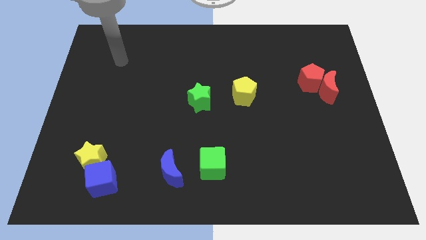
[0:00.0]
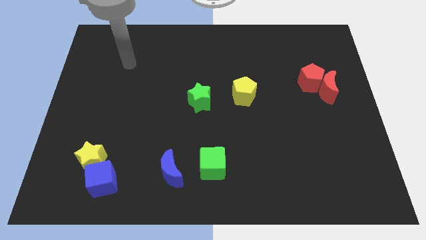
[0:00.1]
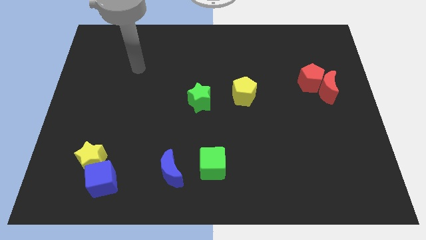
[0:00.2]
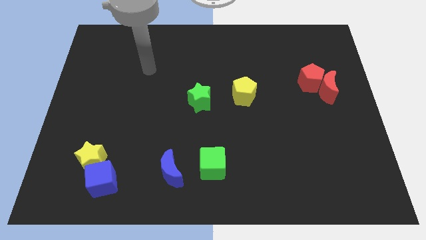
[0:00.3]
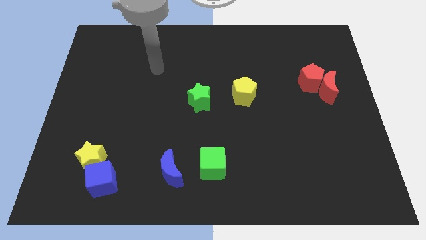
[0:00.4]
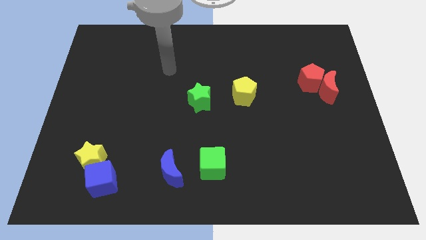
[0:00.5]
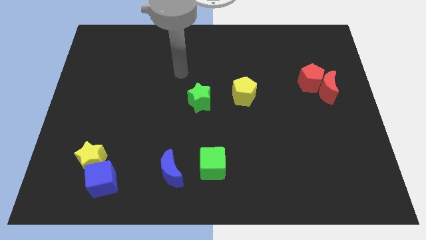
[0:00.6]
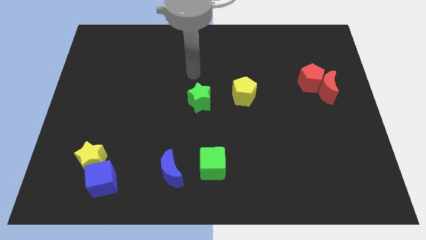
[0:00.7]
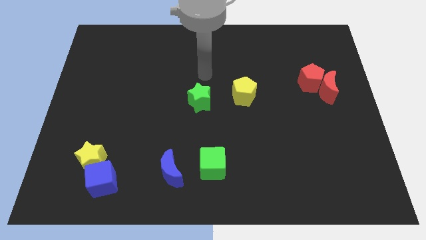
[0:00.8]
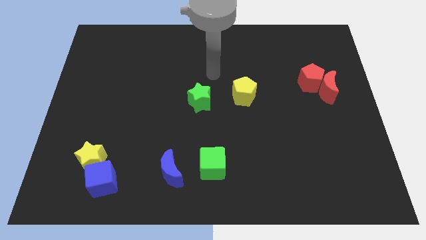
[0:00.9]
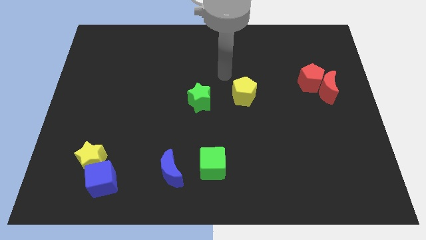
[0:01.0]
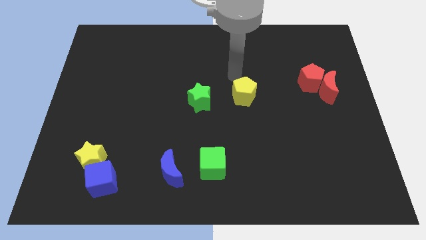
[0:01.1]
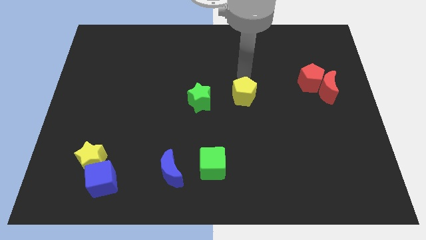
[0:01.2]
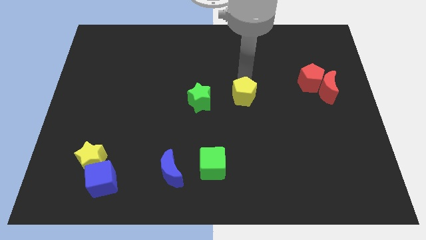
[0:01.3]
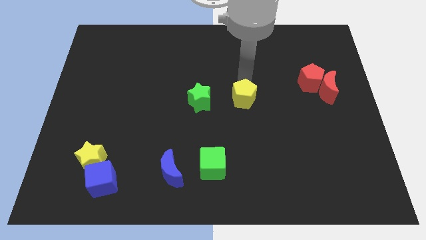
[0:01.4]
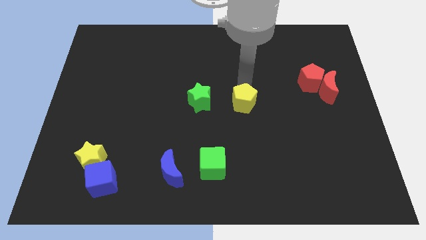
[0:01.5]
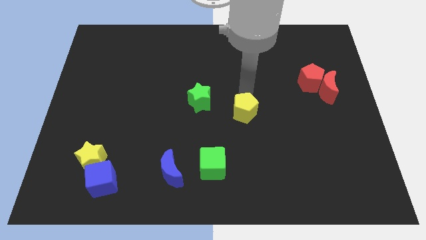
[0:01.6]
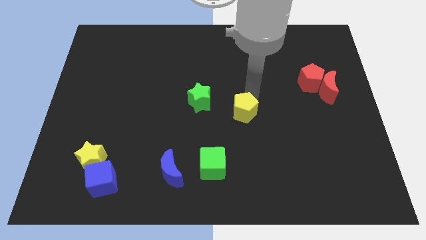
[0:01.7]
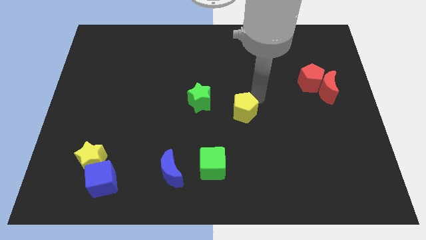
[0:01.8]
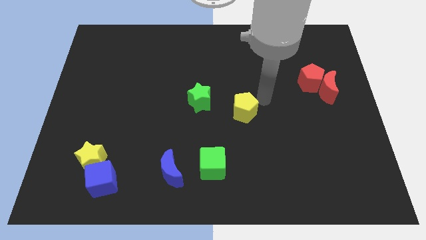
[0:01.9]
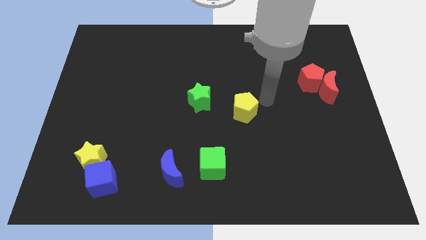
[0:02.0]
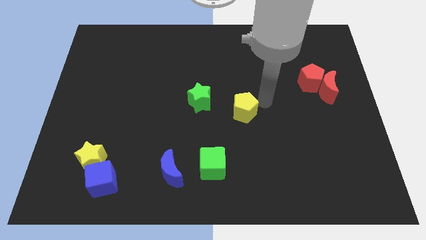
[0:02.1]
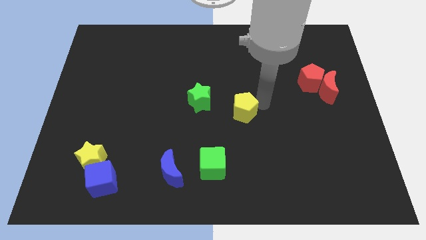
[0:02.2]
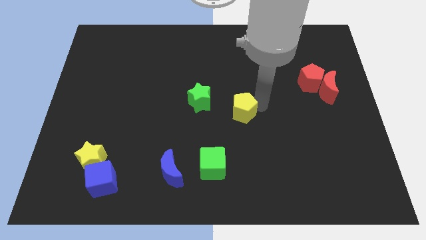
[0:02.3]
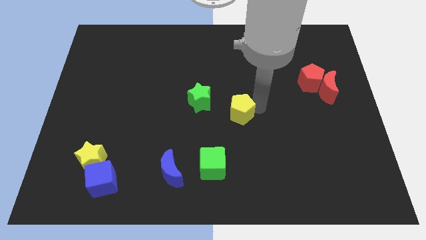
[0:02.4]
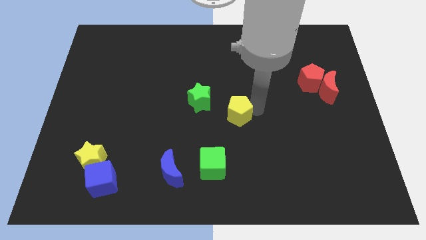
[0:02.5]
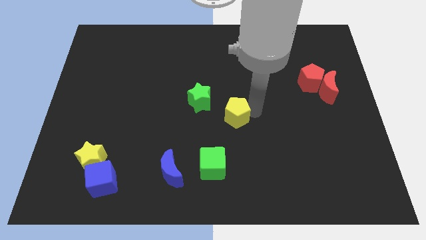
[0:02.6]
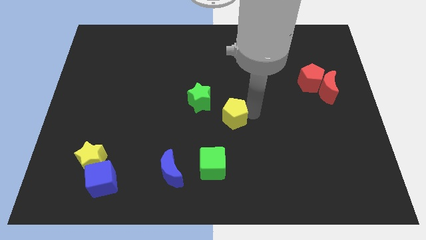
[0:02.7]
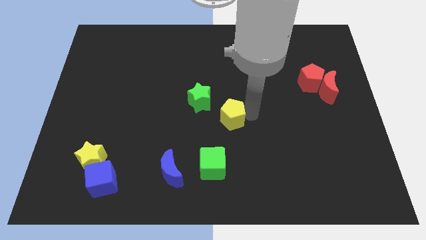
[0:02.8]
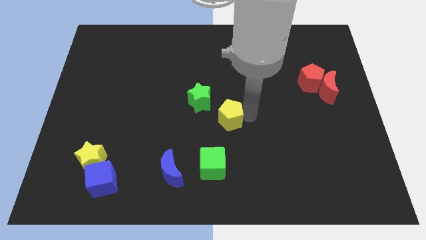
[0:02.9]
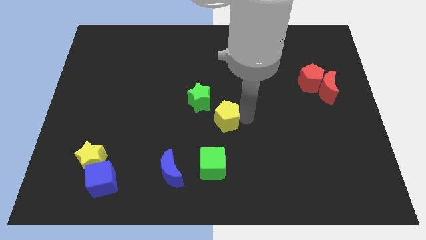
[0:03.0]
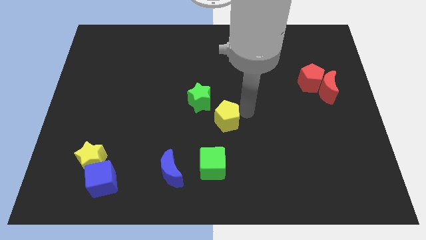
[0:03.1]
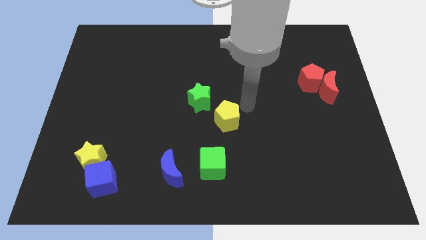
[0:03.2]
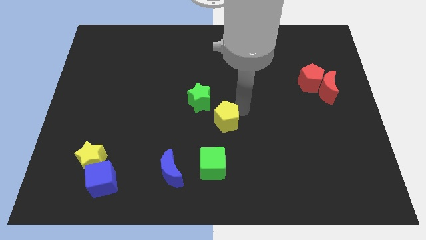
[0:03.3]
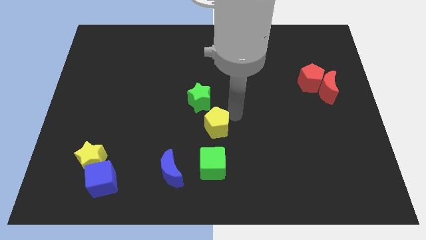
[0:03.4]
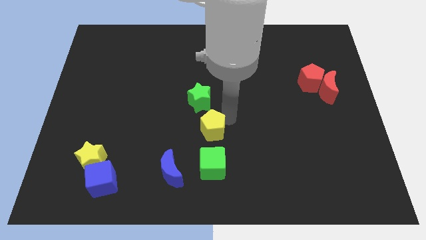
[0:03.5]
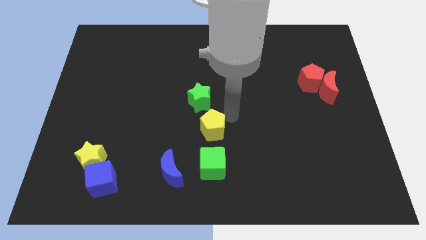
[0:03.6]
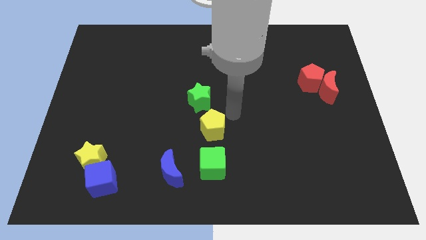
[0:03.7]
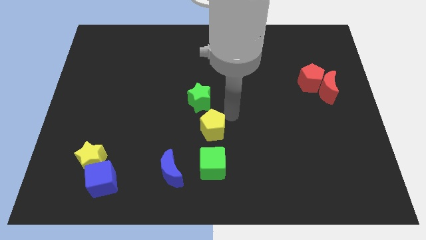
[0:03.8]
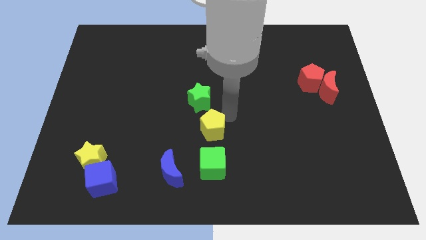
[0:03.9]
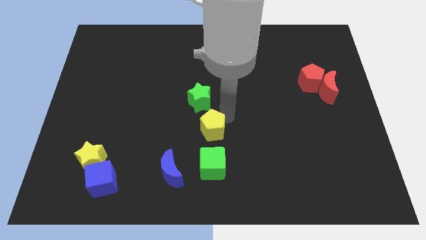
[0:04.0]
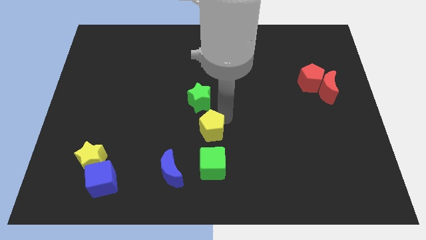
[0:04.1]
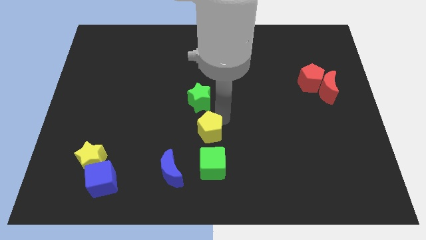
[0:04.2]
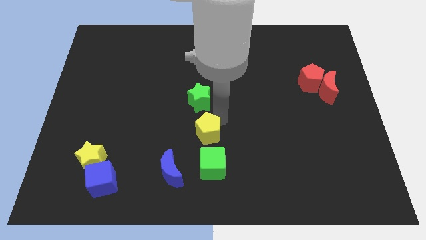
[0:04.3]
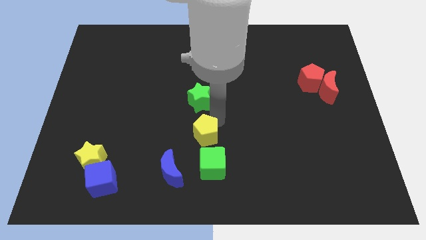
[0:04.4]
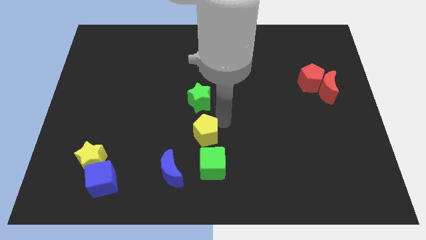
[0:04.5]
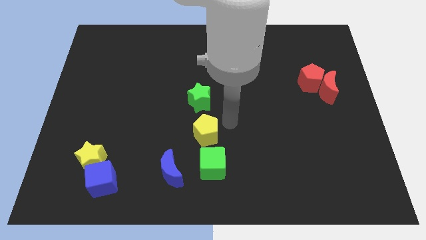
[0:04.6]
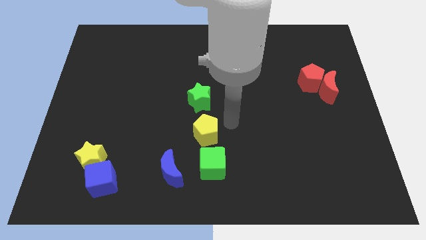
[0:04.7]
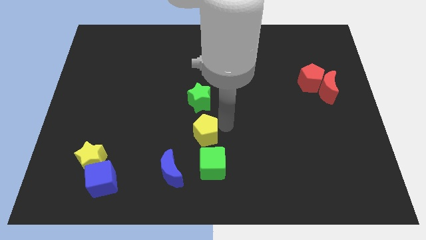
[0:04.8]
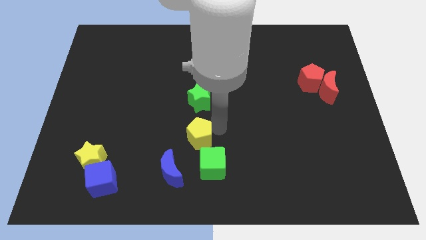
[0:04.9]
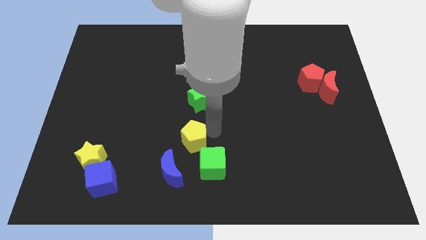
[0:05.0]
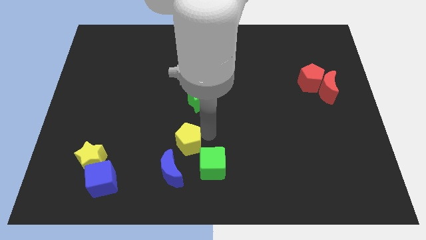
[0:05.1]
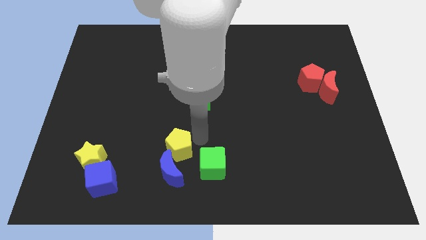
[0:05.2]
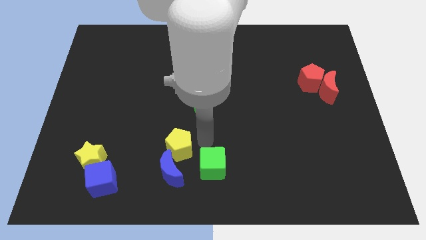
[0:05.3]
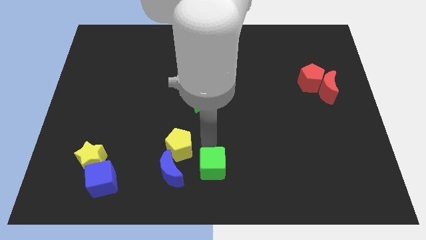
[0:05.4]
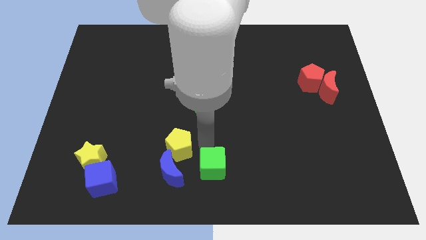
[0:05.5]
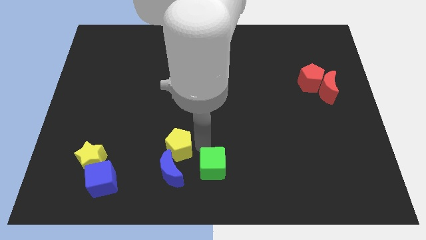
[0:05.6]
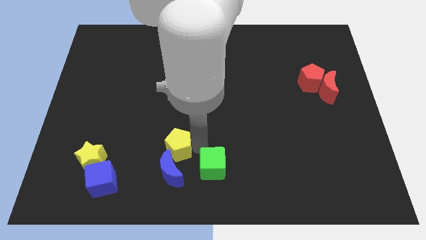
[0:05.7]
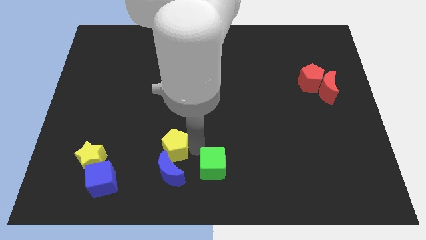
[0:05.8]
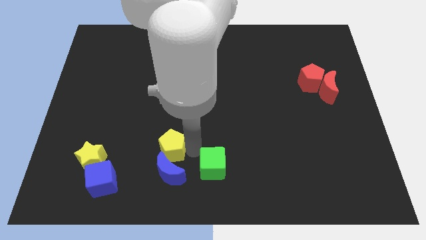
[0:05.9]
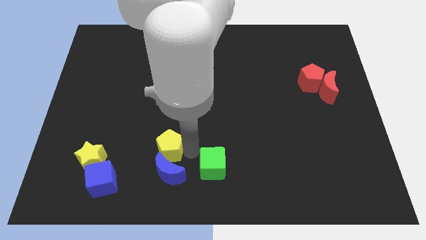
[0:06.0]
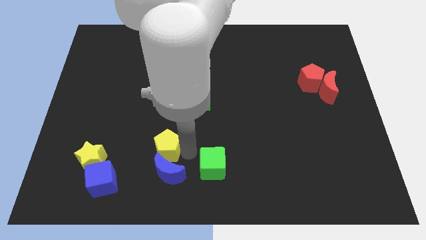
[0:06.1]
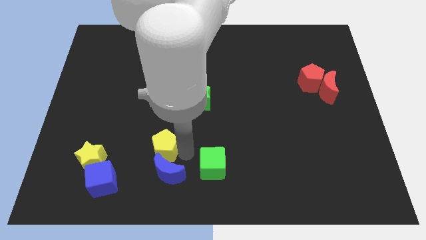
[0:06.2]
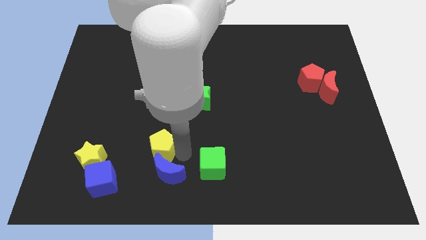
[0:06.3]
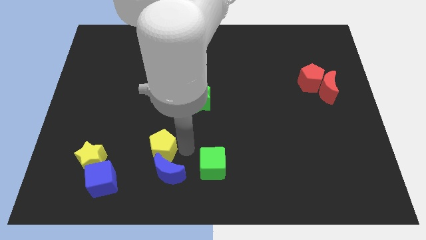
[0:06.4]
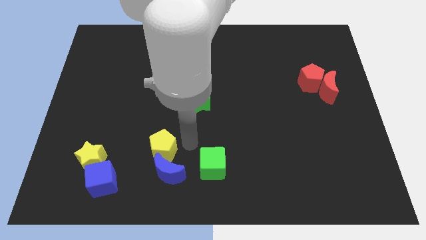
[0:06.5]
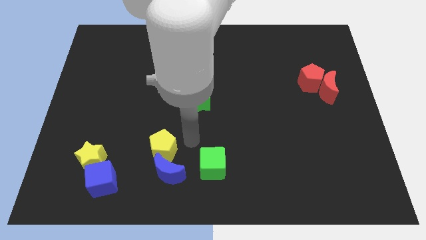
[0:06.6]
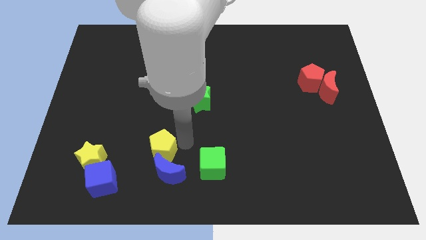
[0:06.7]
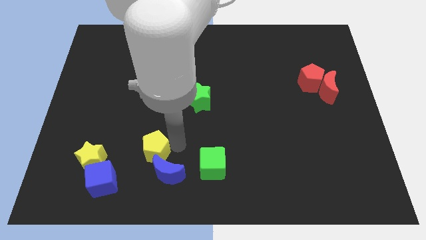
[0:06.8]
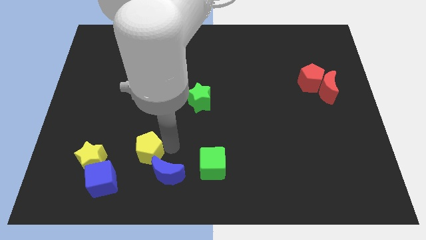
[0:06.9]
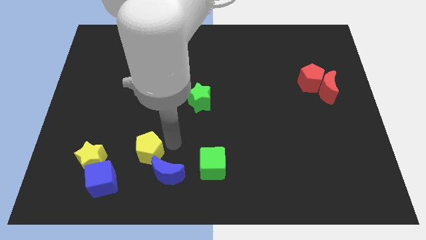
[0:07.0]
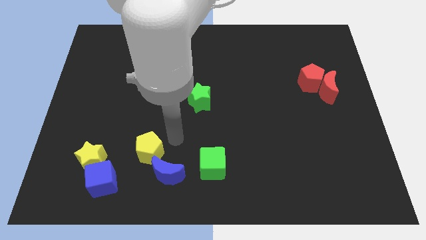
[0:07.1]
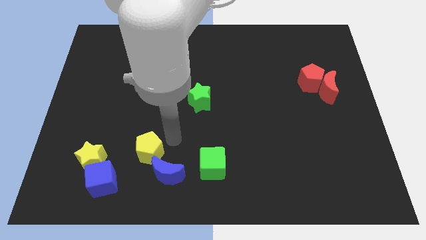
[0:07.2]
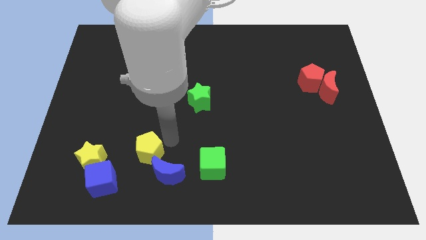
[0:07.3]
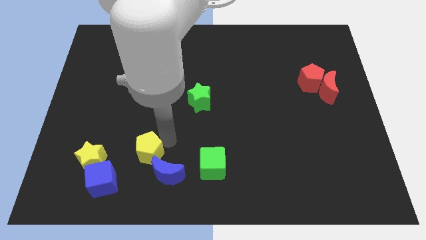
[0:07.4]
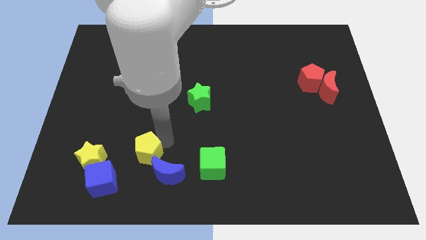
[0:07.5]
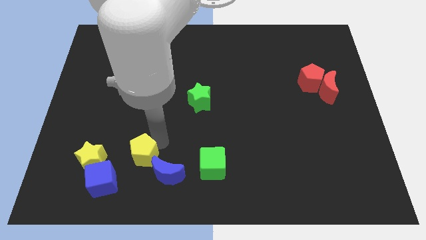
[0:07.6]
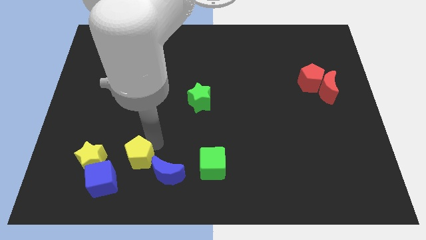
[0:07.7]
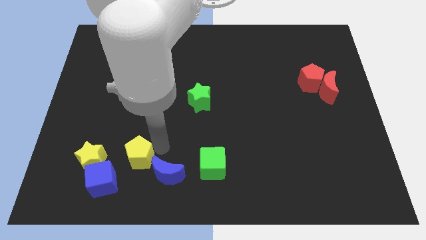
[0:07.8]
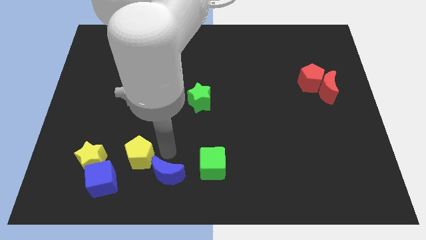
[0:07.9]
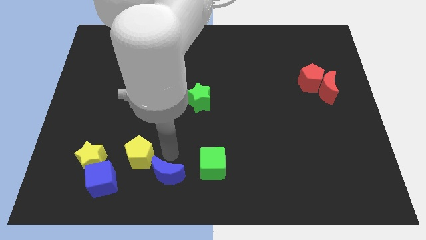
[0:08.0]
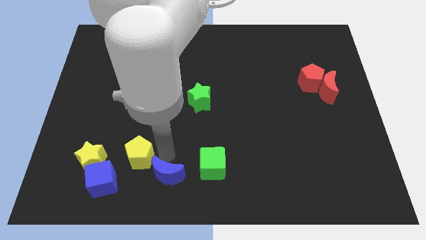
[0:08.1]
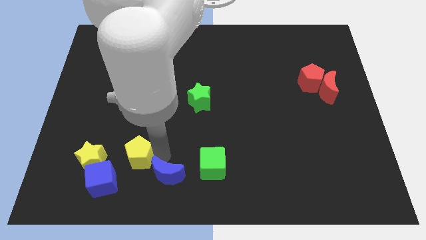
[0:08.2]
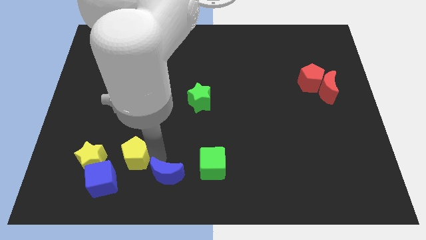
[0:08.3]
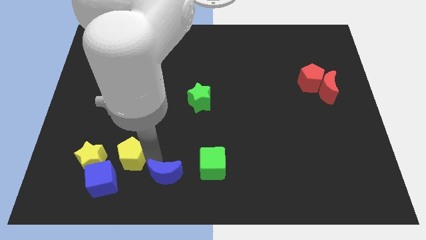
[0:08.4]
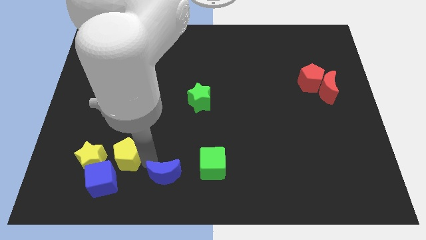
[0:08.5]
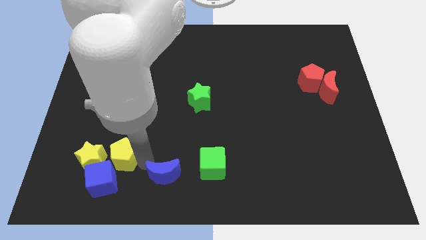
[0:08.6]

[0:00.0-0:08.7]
push the yellow pentagon towards the yellow star
